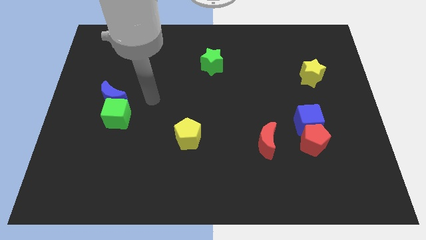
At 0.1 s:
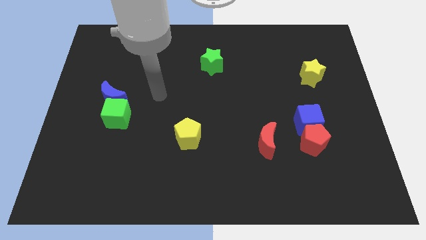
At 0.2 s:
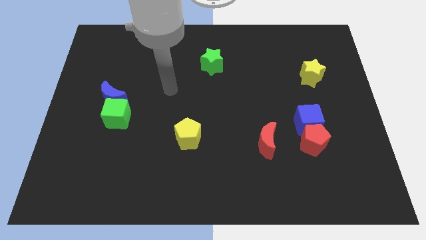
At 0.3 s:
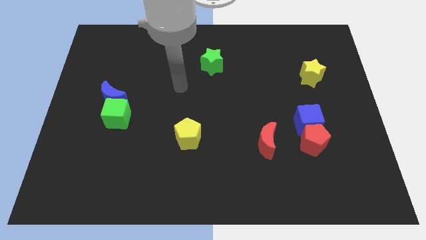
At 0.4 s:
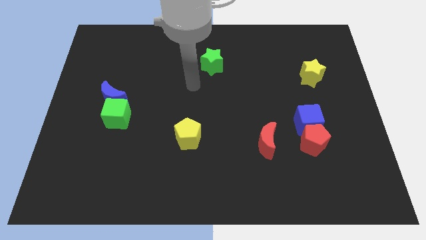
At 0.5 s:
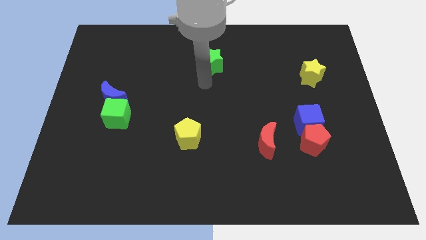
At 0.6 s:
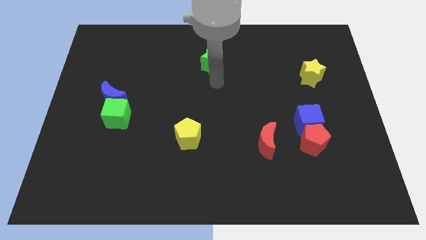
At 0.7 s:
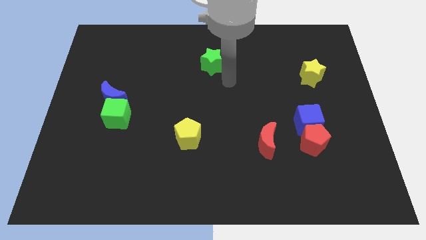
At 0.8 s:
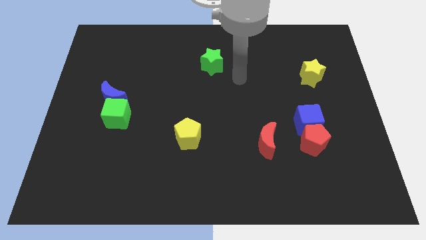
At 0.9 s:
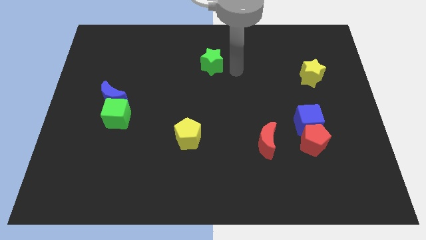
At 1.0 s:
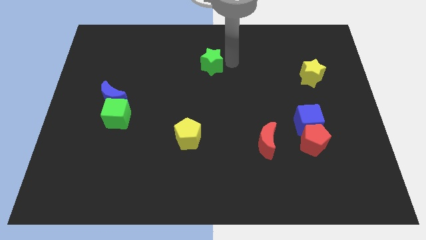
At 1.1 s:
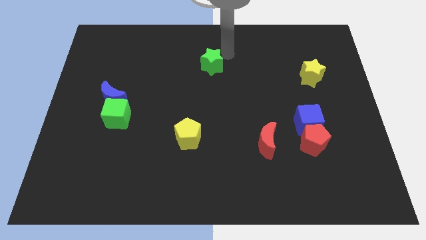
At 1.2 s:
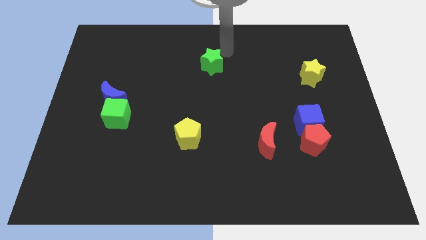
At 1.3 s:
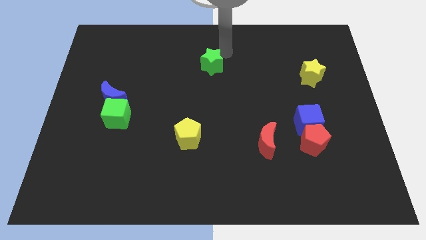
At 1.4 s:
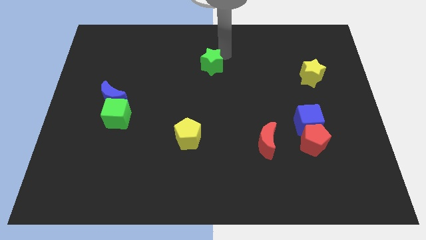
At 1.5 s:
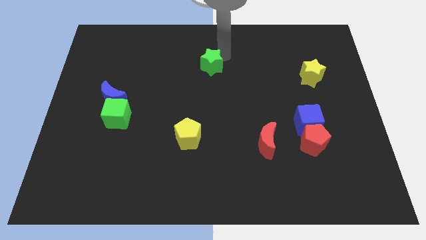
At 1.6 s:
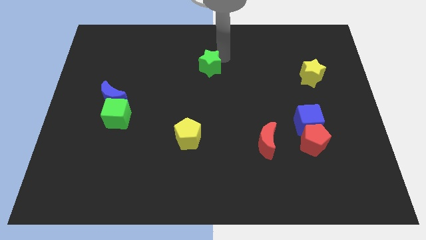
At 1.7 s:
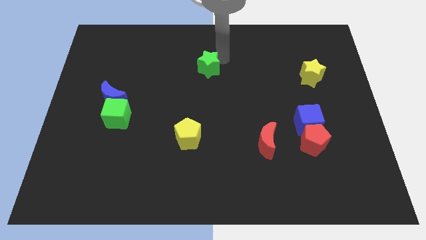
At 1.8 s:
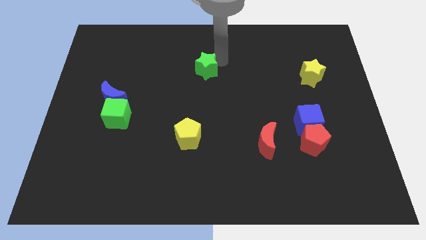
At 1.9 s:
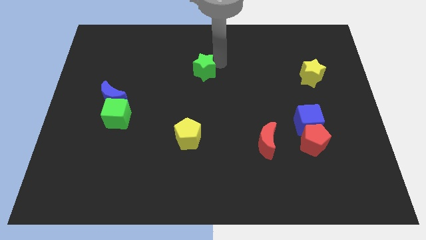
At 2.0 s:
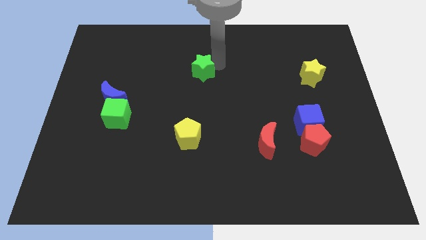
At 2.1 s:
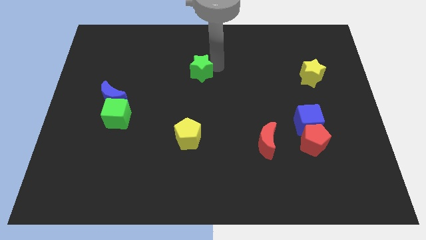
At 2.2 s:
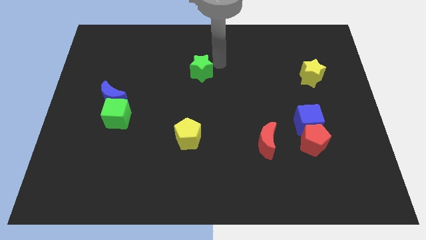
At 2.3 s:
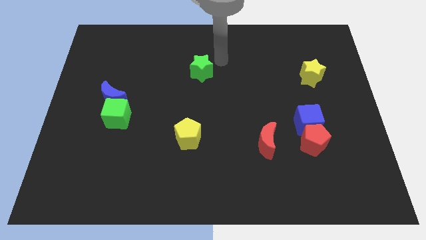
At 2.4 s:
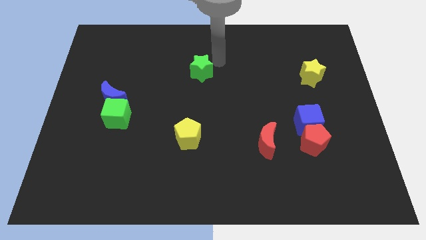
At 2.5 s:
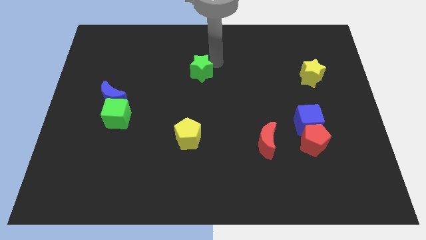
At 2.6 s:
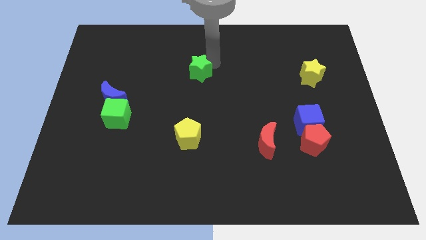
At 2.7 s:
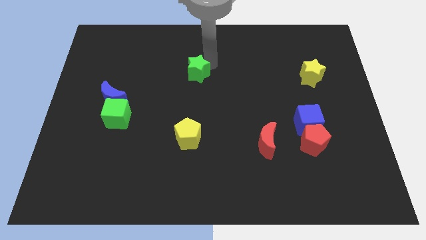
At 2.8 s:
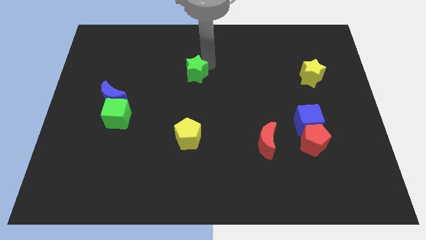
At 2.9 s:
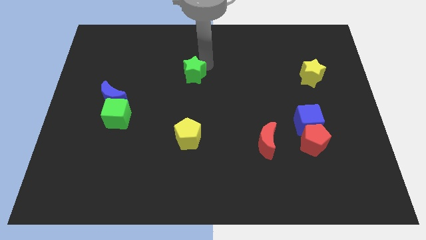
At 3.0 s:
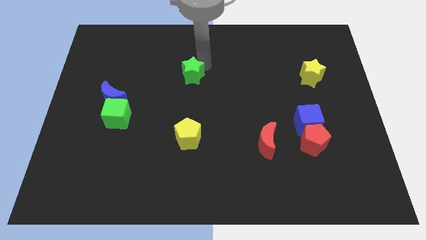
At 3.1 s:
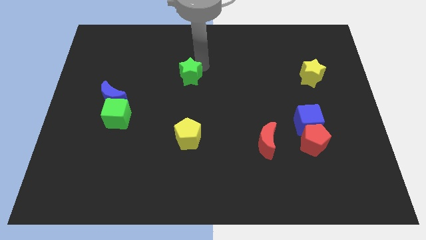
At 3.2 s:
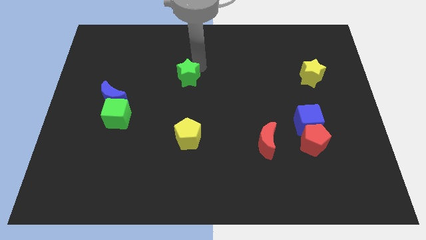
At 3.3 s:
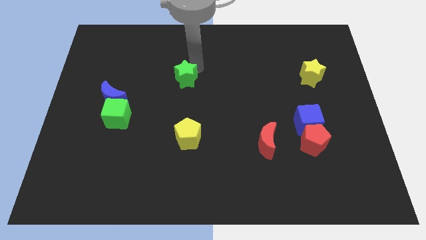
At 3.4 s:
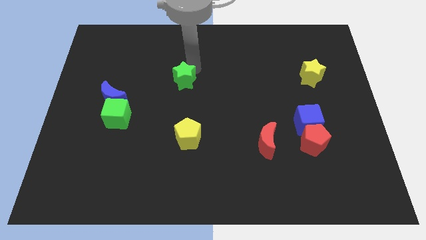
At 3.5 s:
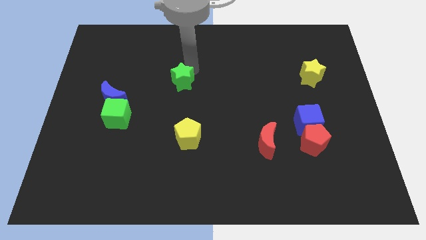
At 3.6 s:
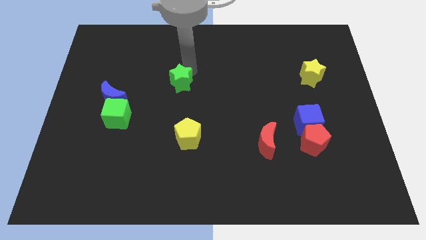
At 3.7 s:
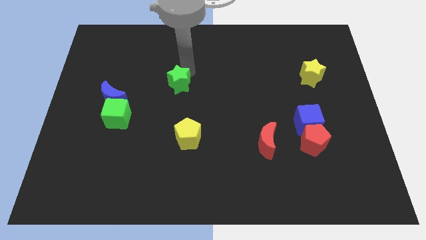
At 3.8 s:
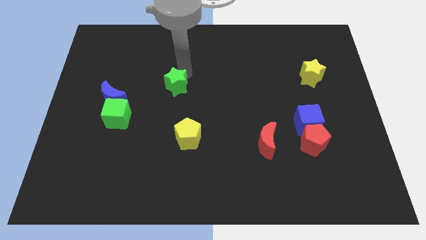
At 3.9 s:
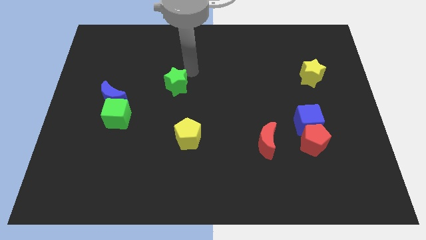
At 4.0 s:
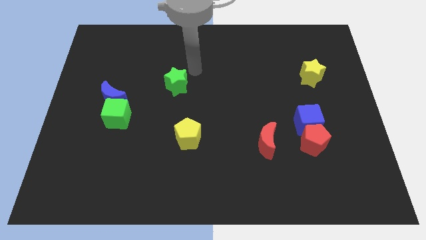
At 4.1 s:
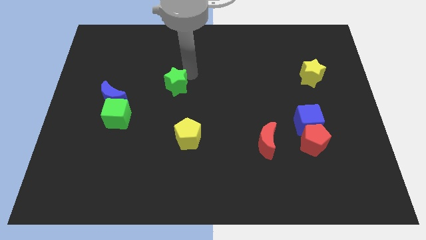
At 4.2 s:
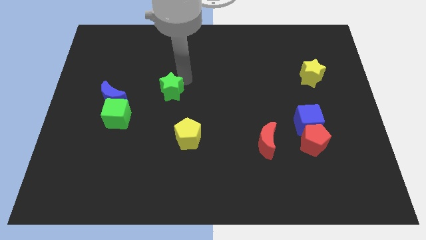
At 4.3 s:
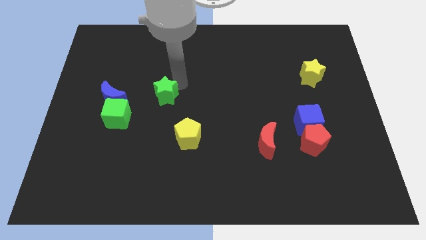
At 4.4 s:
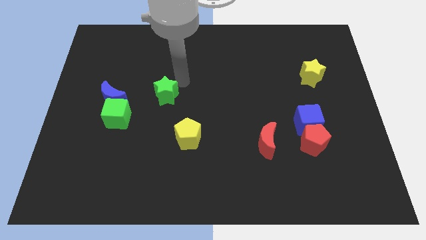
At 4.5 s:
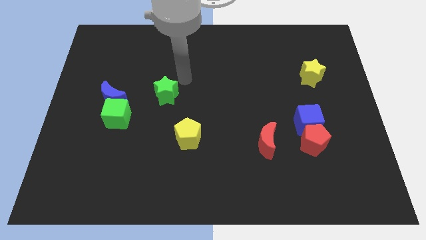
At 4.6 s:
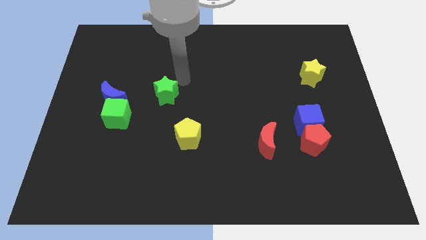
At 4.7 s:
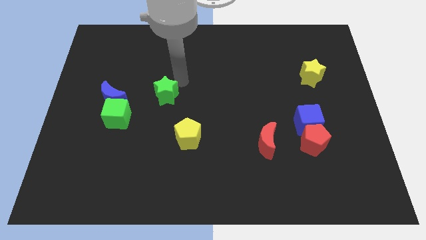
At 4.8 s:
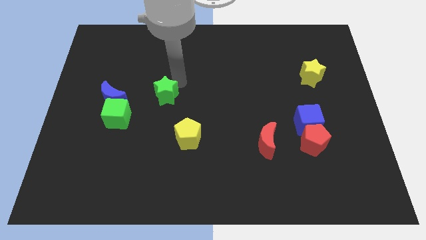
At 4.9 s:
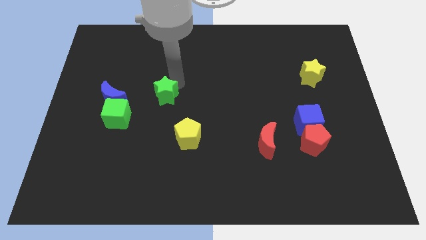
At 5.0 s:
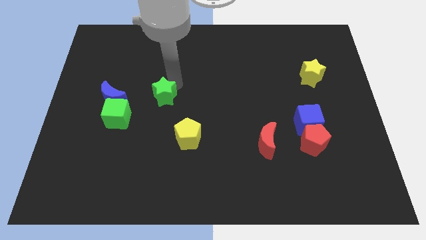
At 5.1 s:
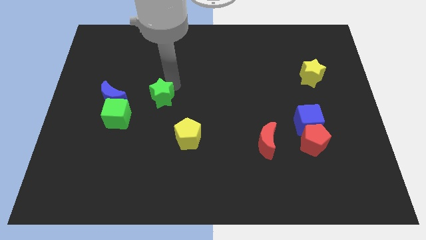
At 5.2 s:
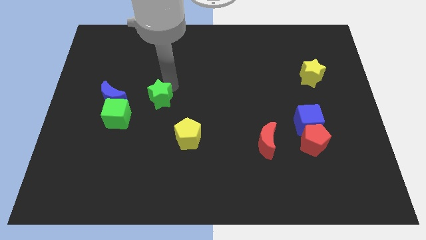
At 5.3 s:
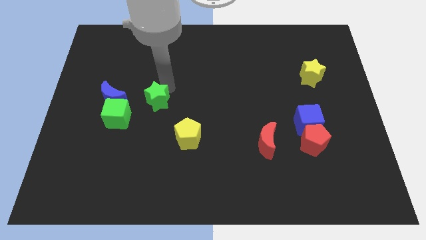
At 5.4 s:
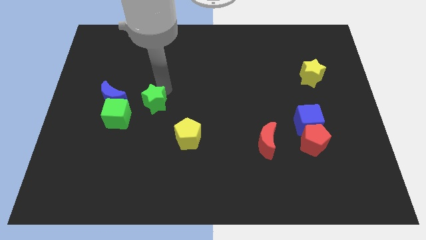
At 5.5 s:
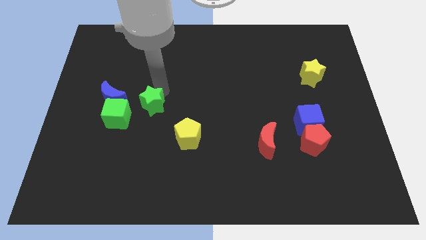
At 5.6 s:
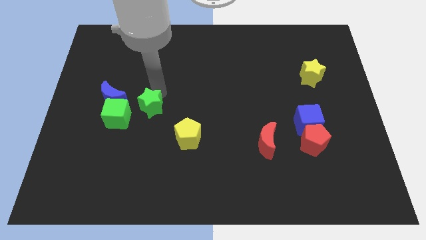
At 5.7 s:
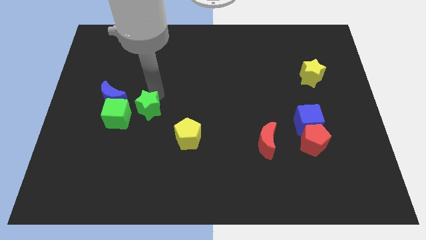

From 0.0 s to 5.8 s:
push the green star down and to the left

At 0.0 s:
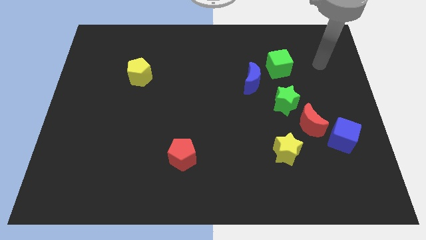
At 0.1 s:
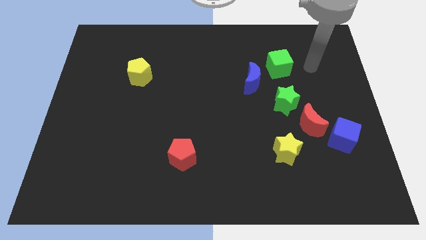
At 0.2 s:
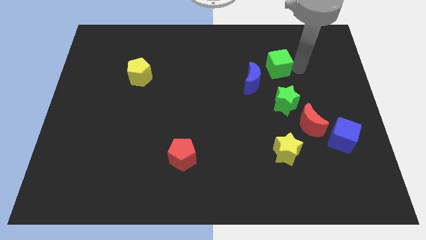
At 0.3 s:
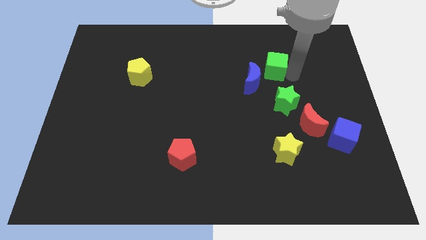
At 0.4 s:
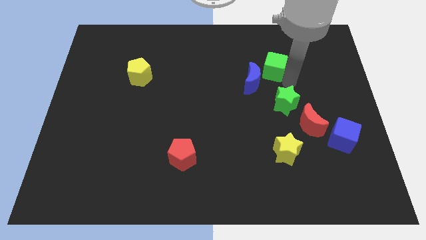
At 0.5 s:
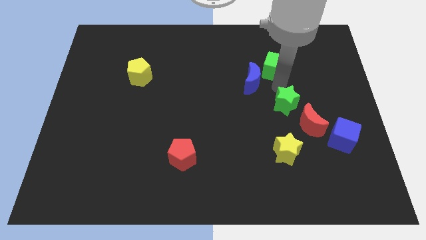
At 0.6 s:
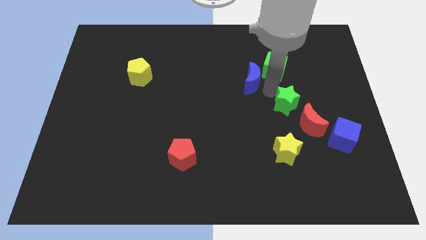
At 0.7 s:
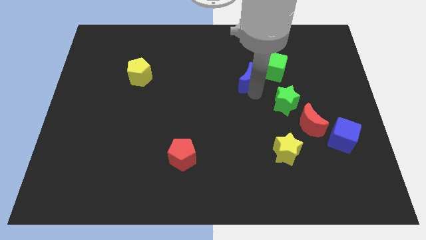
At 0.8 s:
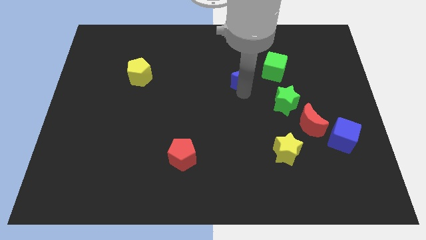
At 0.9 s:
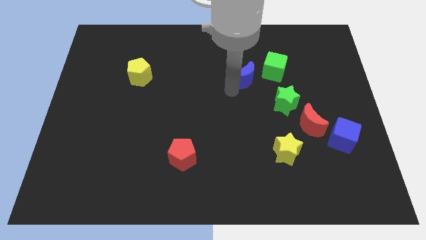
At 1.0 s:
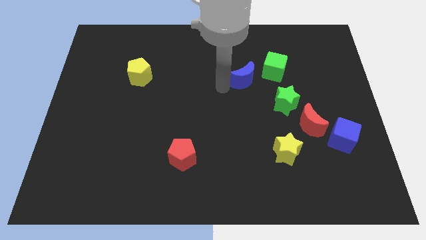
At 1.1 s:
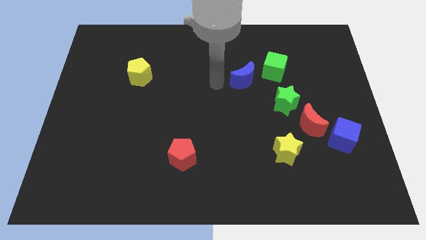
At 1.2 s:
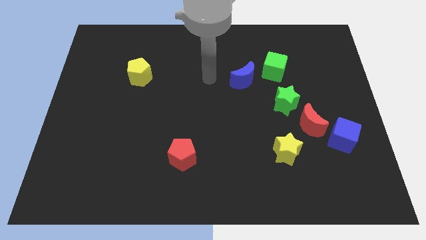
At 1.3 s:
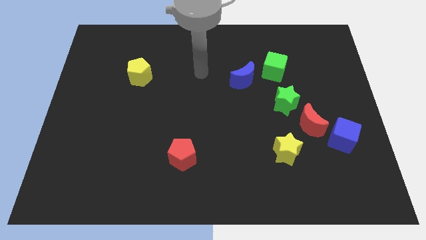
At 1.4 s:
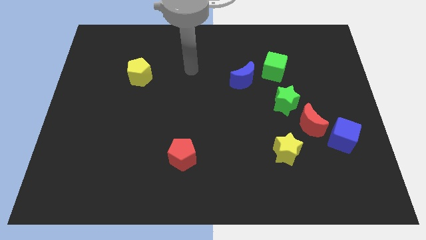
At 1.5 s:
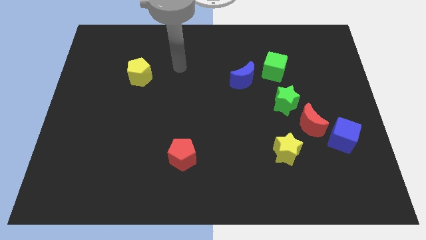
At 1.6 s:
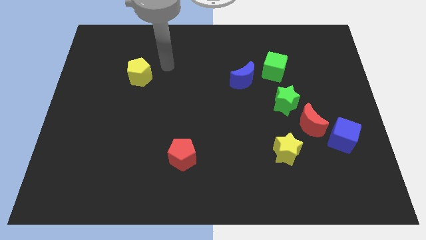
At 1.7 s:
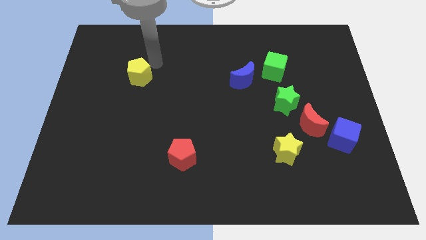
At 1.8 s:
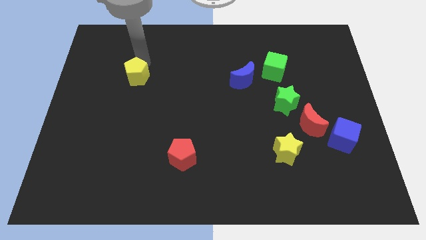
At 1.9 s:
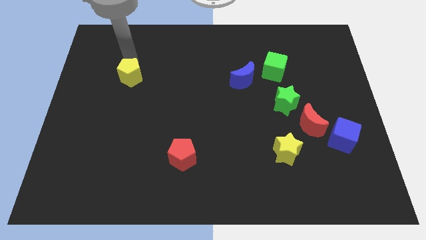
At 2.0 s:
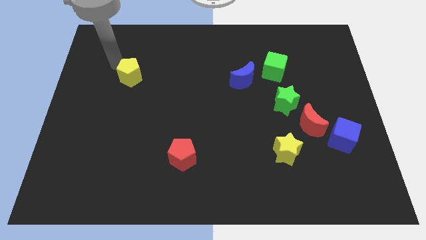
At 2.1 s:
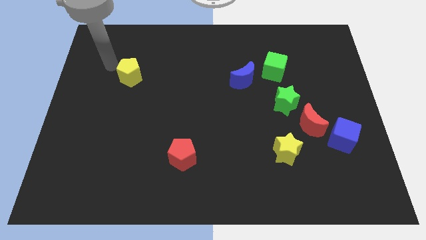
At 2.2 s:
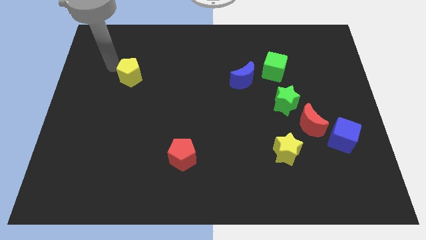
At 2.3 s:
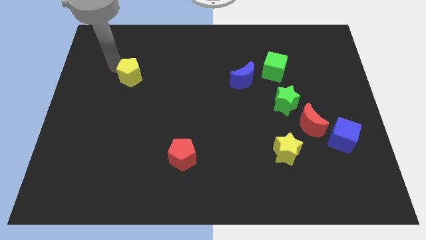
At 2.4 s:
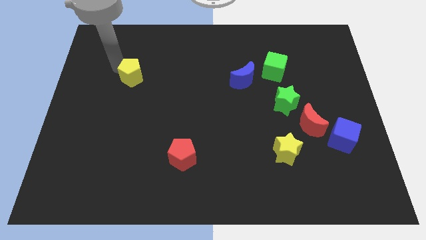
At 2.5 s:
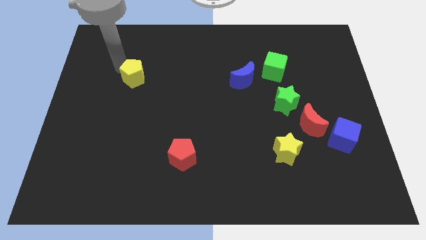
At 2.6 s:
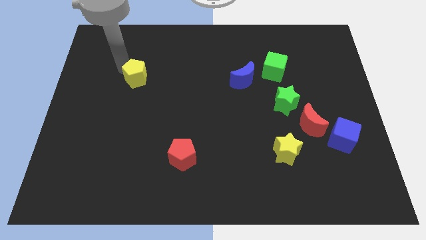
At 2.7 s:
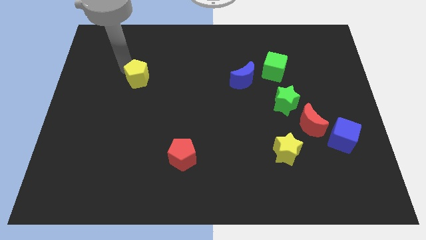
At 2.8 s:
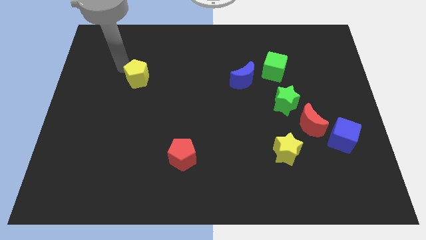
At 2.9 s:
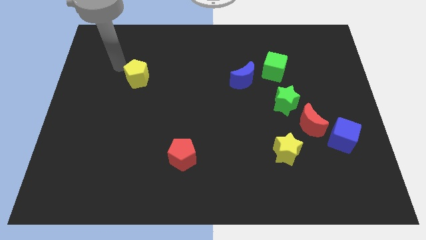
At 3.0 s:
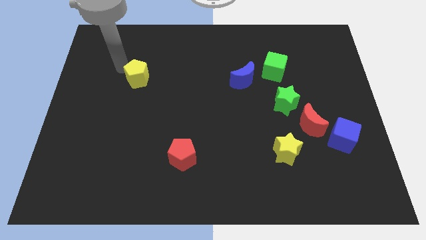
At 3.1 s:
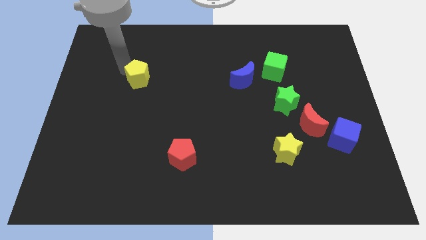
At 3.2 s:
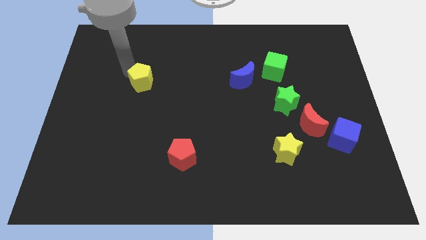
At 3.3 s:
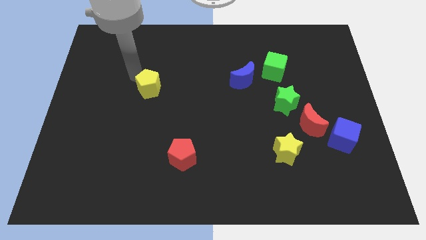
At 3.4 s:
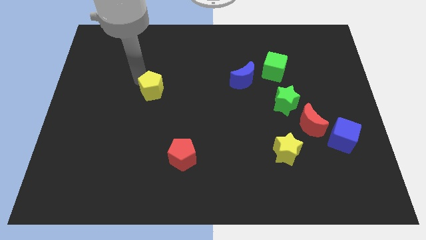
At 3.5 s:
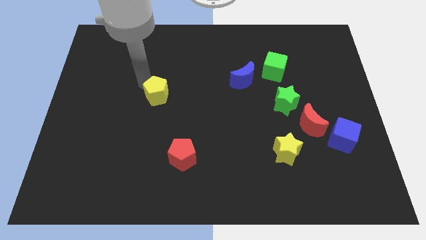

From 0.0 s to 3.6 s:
move the yellow pentagon slightly diagonally down and to the right
